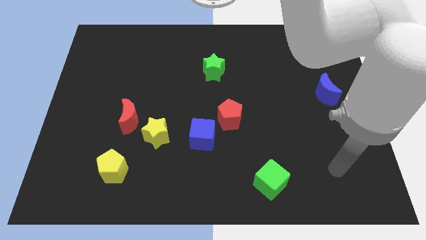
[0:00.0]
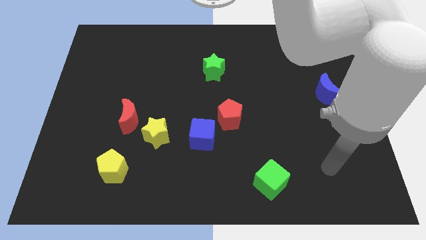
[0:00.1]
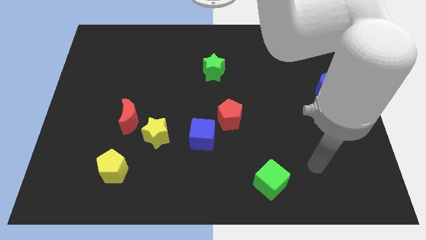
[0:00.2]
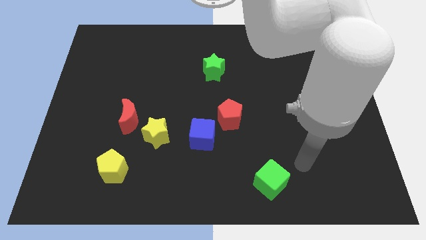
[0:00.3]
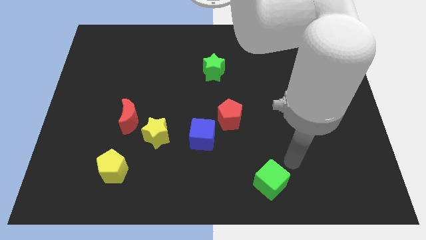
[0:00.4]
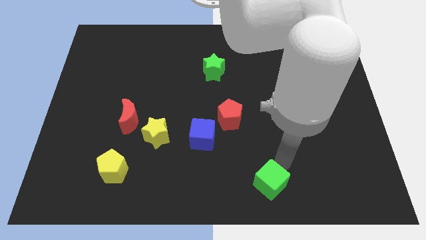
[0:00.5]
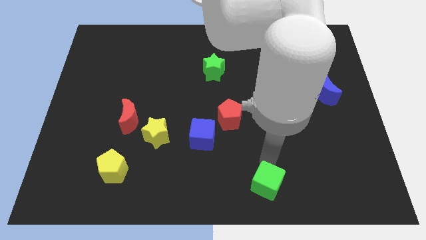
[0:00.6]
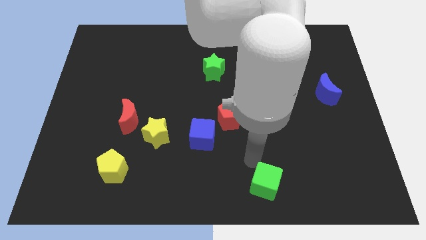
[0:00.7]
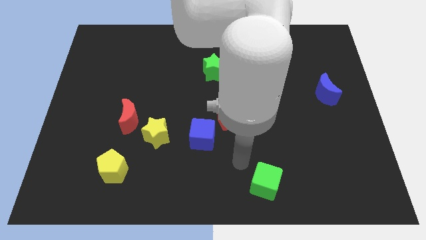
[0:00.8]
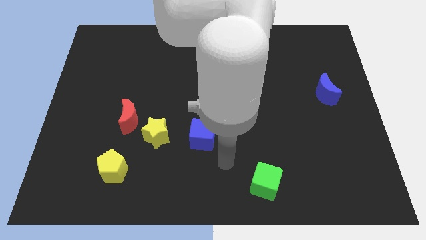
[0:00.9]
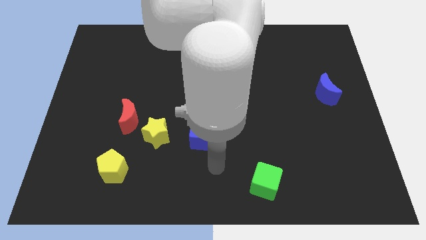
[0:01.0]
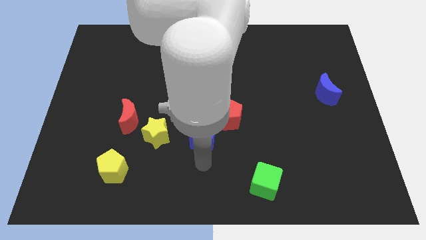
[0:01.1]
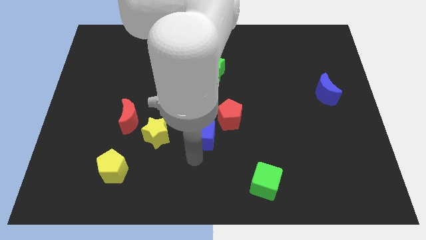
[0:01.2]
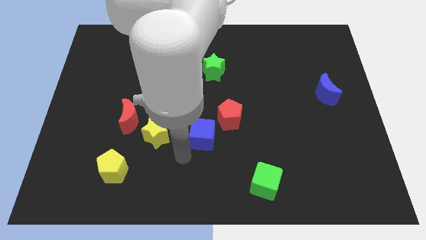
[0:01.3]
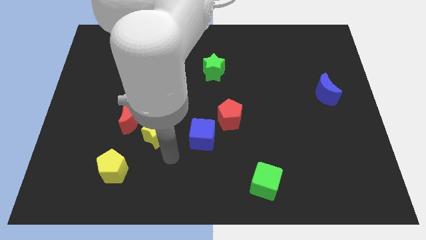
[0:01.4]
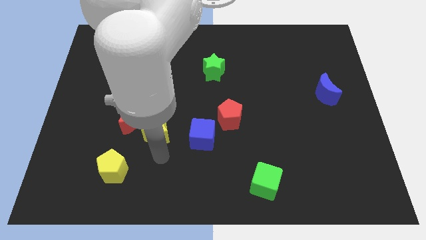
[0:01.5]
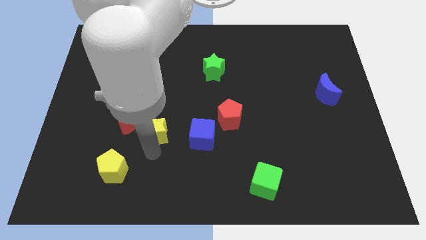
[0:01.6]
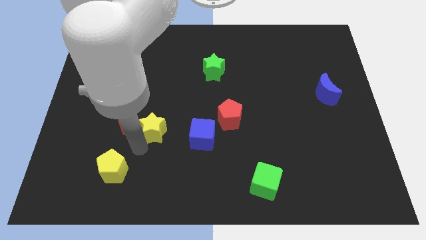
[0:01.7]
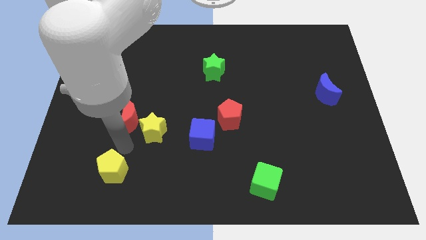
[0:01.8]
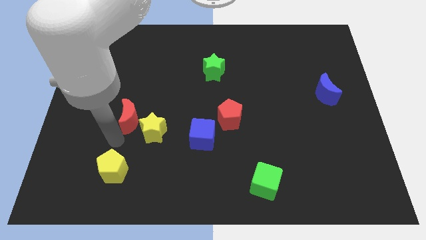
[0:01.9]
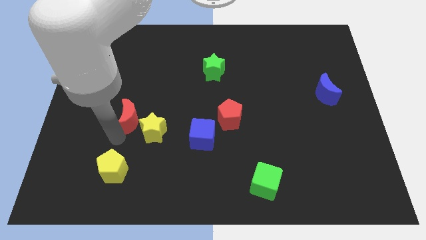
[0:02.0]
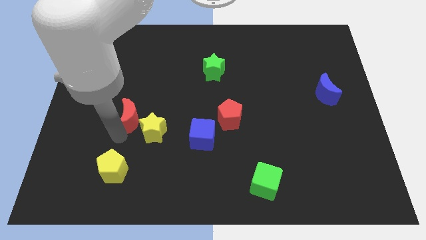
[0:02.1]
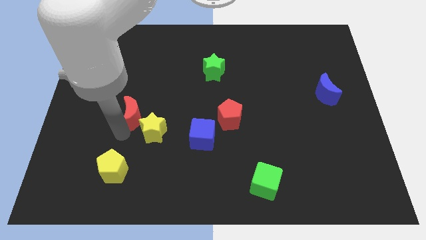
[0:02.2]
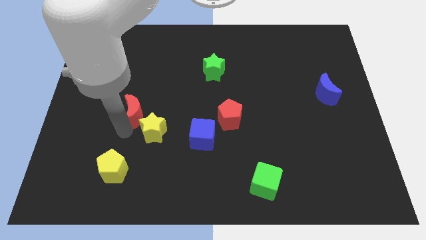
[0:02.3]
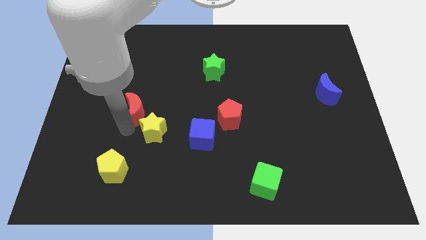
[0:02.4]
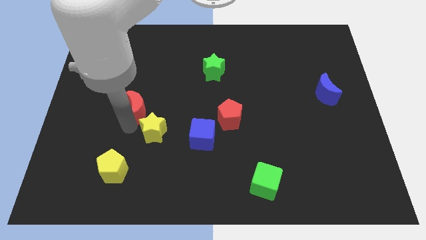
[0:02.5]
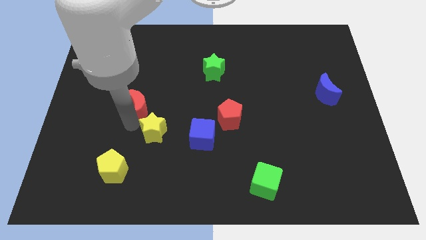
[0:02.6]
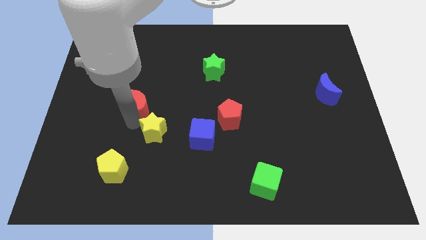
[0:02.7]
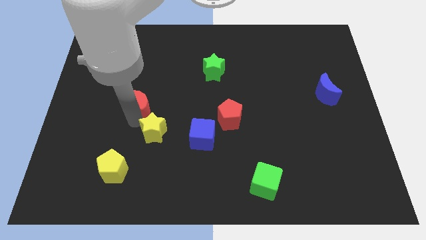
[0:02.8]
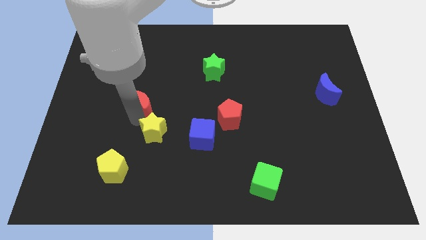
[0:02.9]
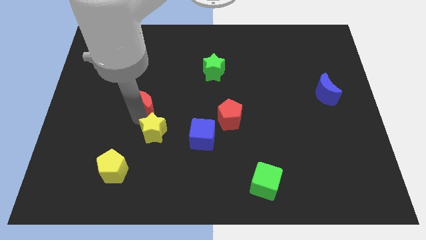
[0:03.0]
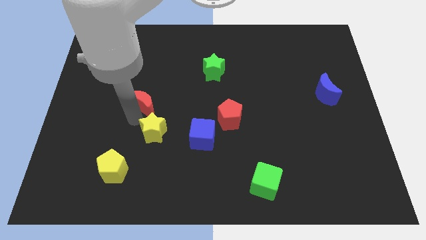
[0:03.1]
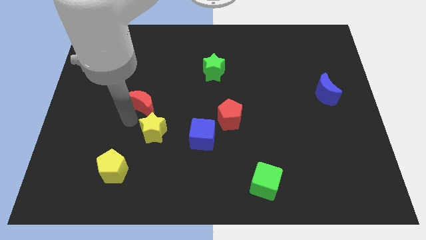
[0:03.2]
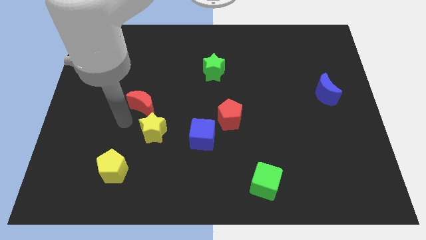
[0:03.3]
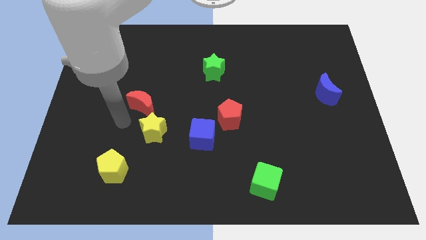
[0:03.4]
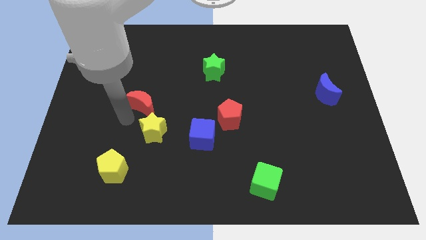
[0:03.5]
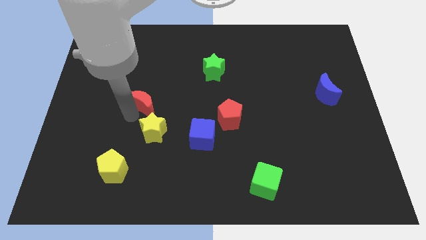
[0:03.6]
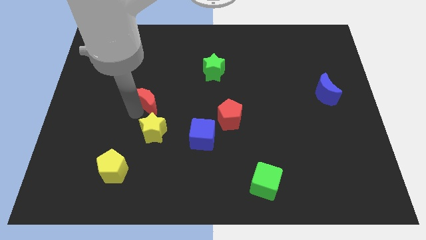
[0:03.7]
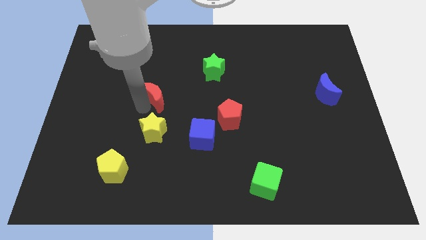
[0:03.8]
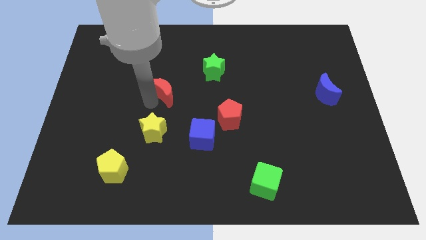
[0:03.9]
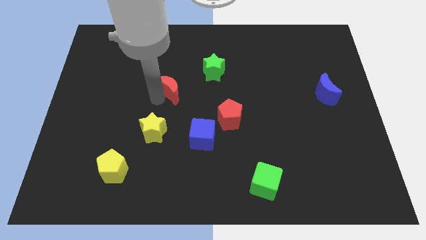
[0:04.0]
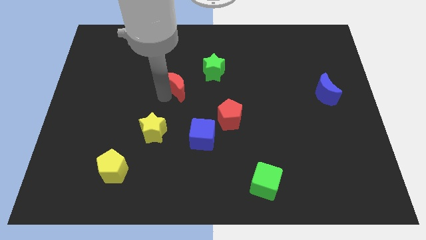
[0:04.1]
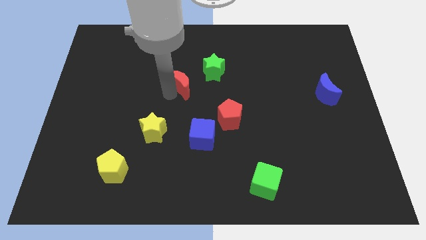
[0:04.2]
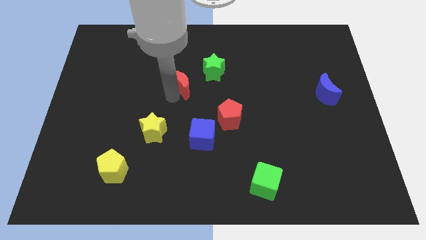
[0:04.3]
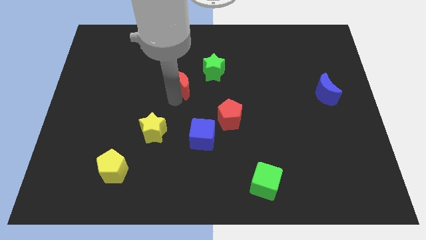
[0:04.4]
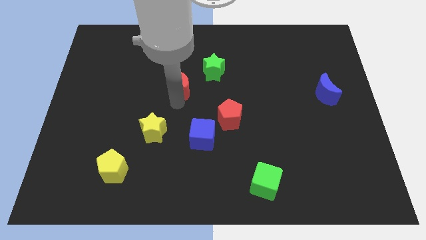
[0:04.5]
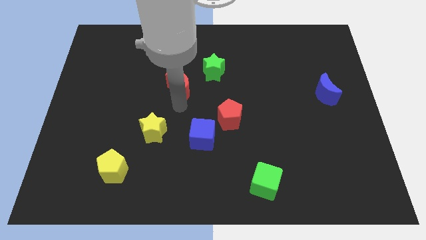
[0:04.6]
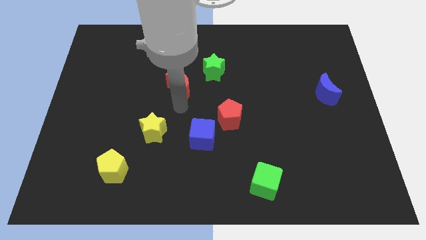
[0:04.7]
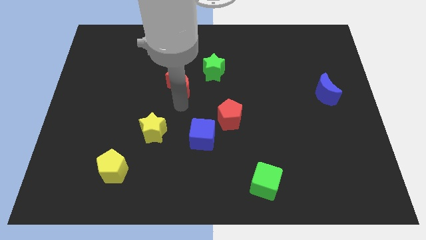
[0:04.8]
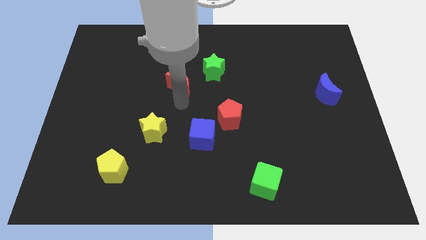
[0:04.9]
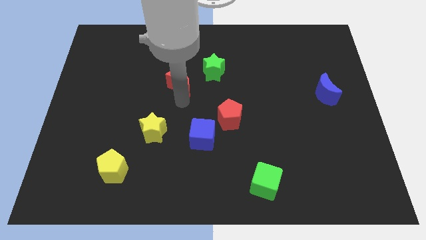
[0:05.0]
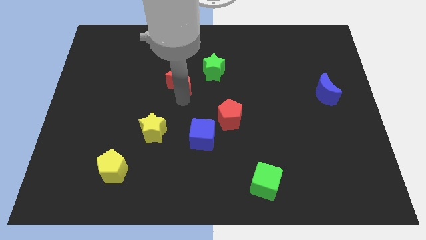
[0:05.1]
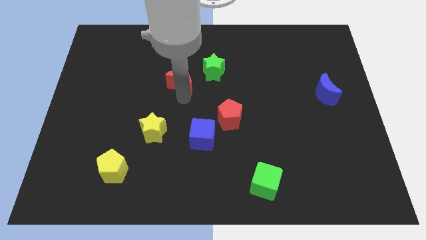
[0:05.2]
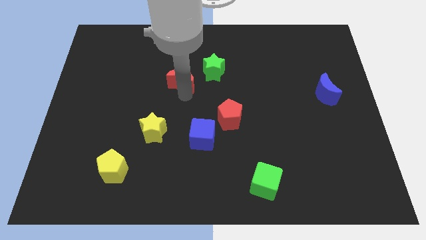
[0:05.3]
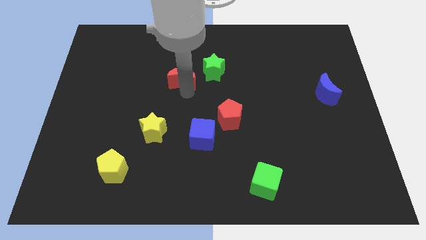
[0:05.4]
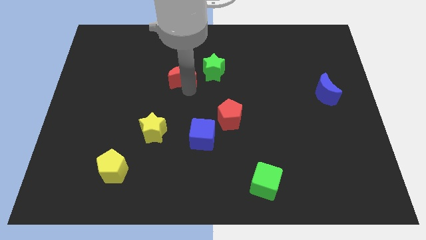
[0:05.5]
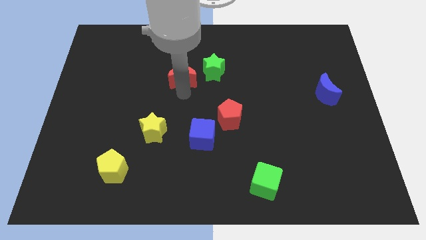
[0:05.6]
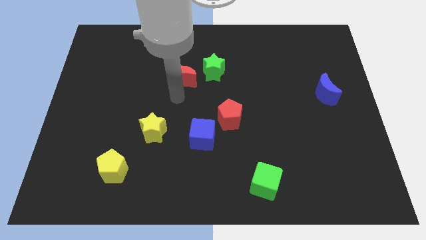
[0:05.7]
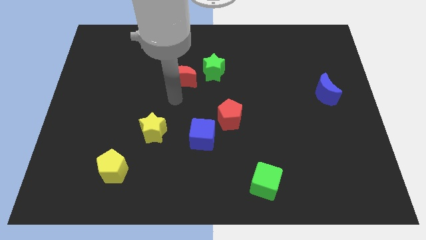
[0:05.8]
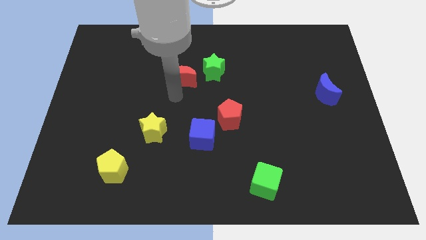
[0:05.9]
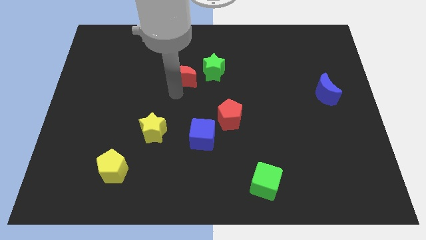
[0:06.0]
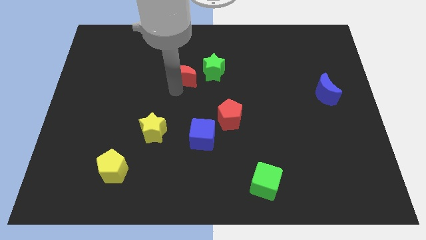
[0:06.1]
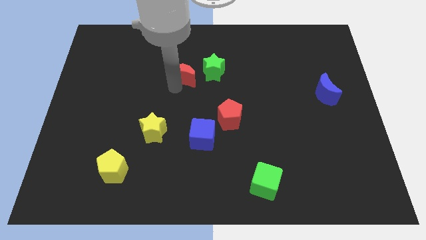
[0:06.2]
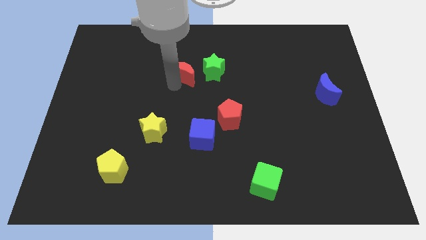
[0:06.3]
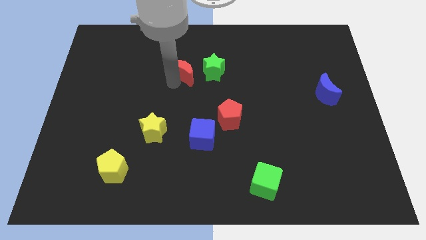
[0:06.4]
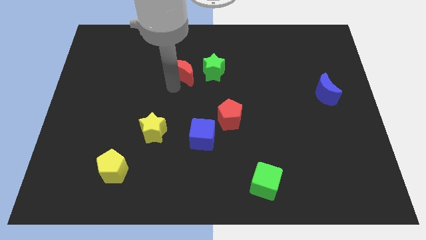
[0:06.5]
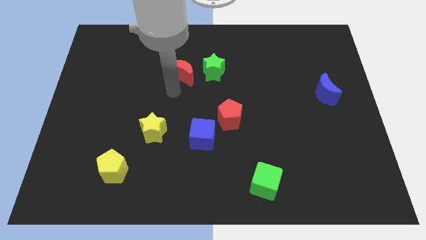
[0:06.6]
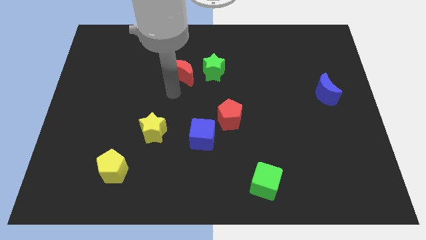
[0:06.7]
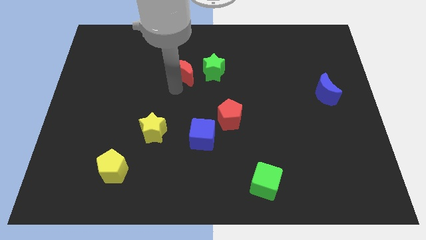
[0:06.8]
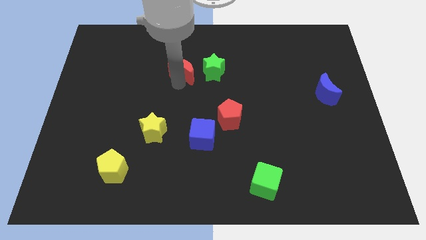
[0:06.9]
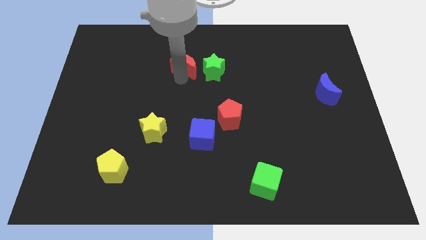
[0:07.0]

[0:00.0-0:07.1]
push the red moon to the top left side of the green star
